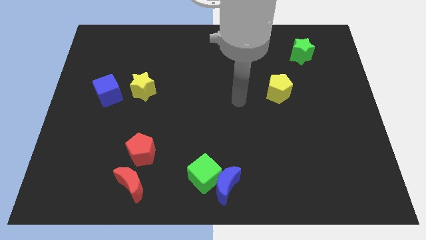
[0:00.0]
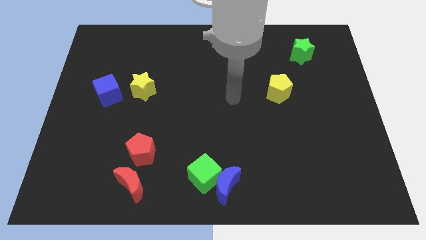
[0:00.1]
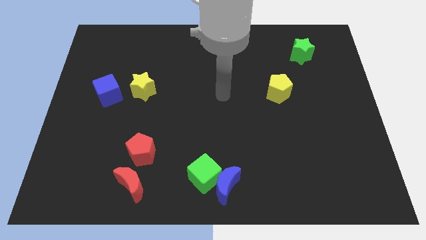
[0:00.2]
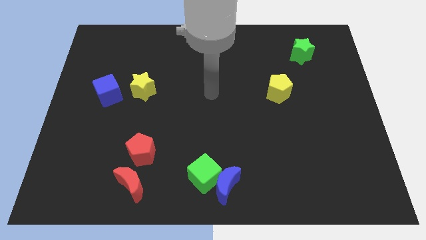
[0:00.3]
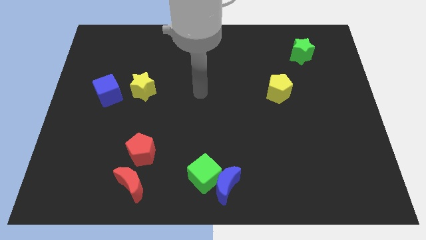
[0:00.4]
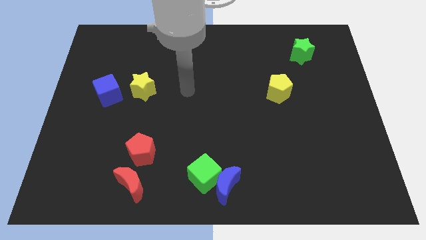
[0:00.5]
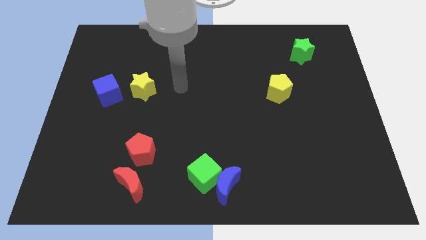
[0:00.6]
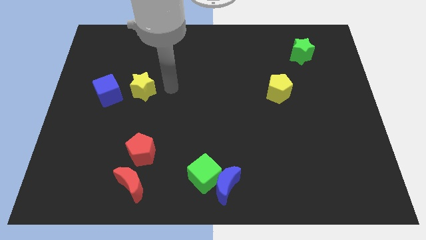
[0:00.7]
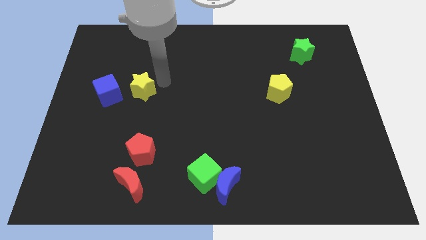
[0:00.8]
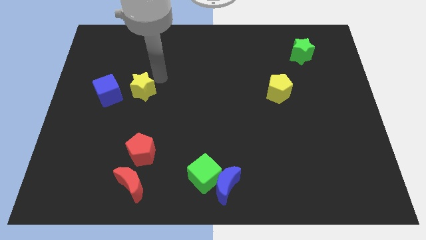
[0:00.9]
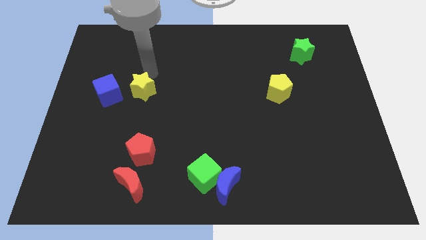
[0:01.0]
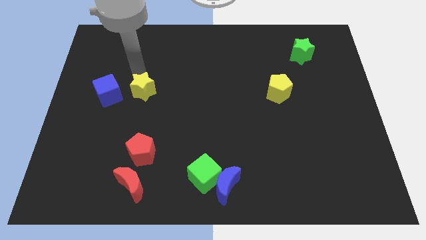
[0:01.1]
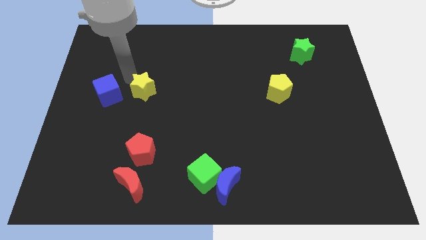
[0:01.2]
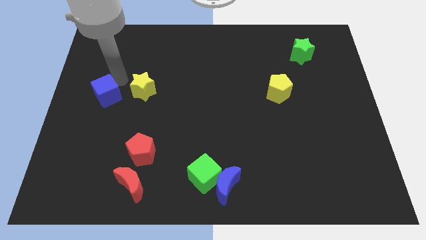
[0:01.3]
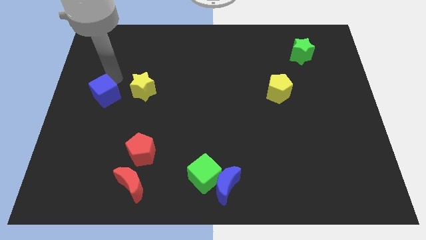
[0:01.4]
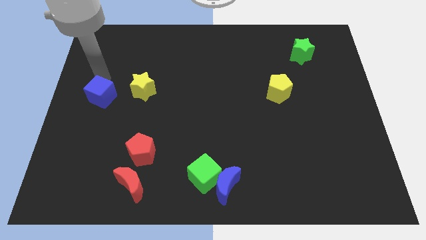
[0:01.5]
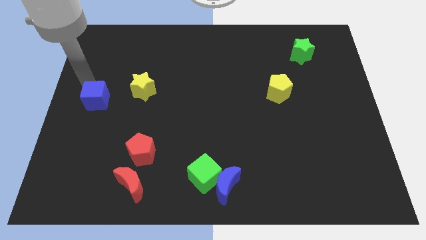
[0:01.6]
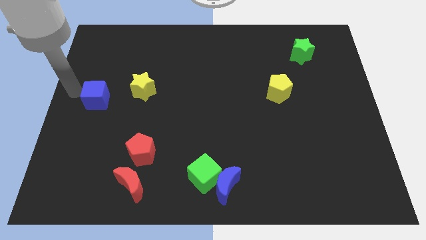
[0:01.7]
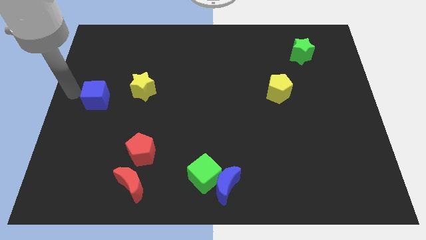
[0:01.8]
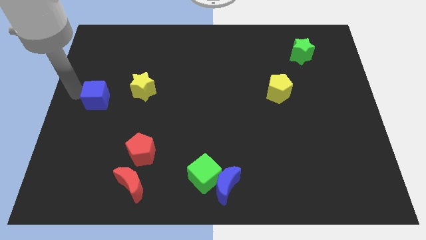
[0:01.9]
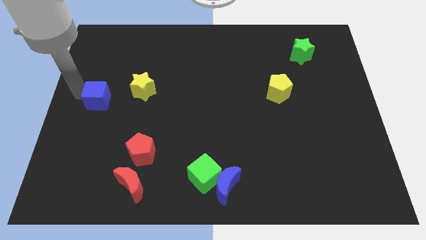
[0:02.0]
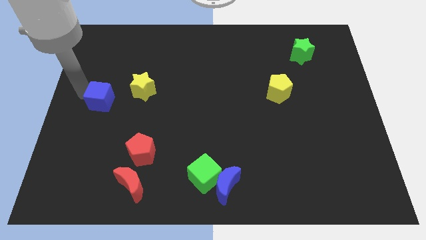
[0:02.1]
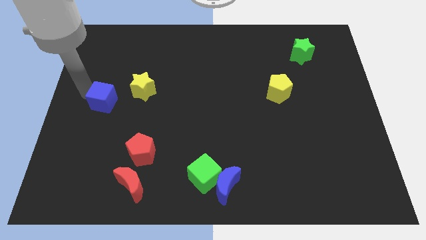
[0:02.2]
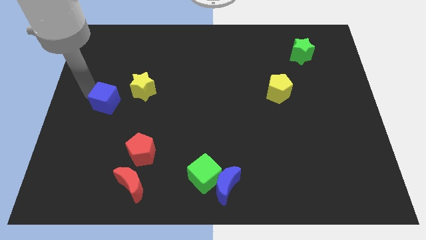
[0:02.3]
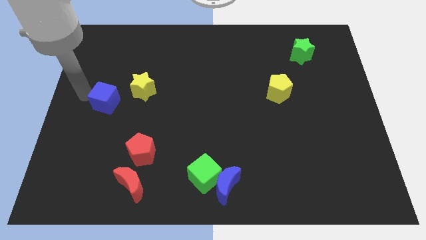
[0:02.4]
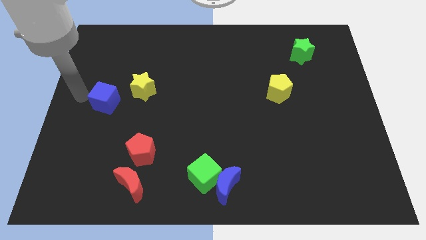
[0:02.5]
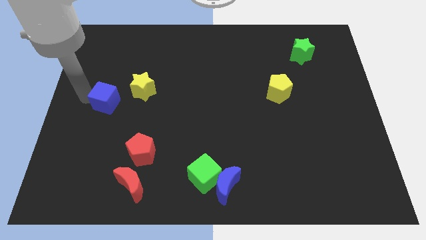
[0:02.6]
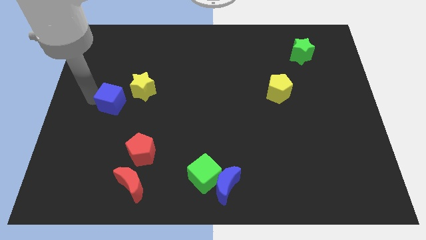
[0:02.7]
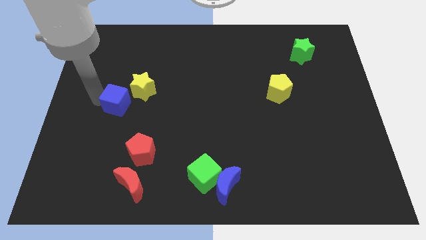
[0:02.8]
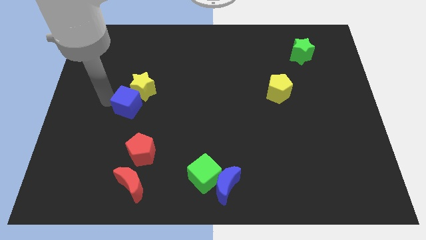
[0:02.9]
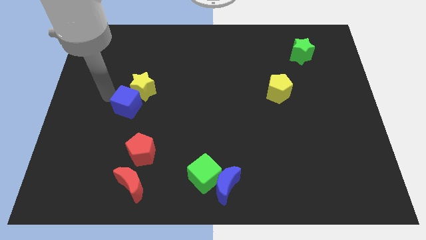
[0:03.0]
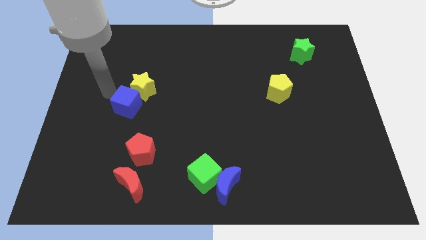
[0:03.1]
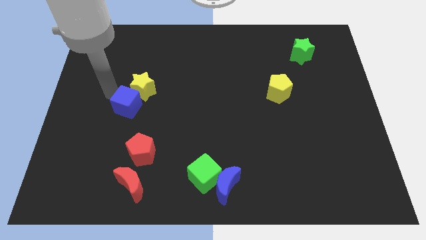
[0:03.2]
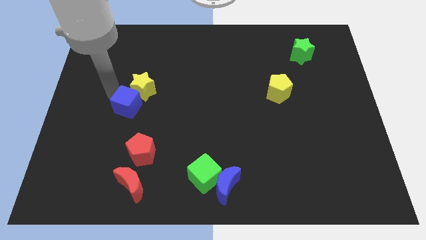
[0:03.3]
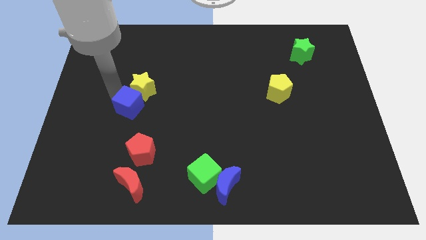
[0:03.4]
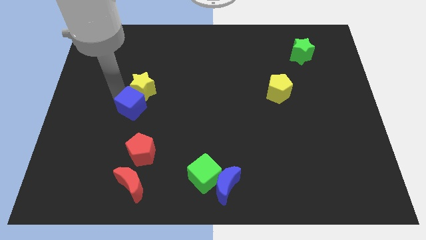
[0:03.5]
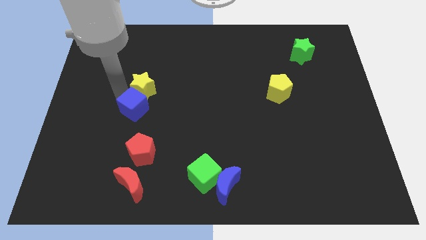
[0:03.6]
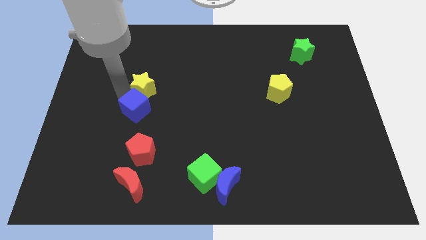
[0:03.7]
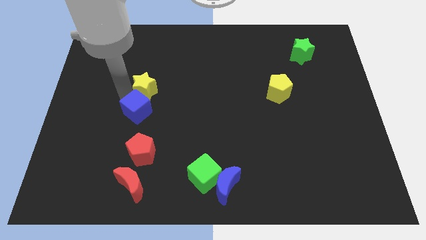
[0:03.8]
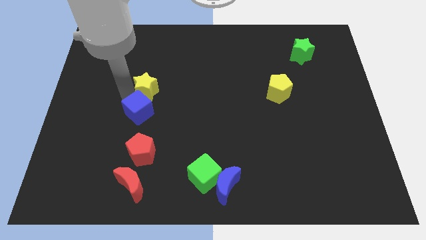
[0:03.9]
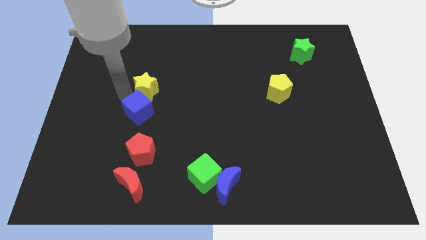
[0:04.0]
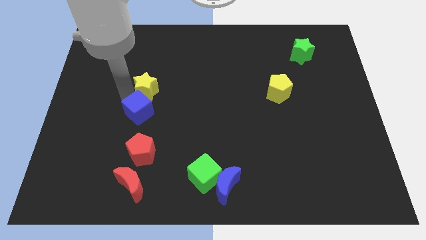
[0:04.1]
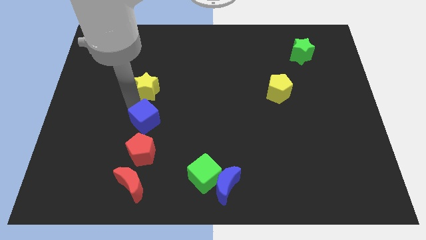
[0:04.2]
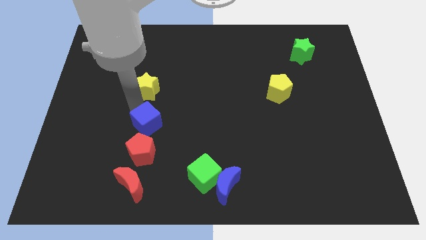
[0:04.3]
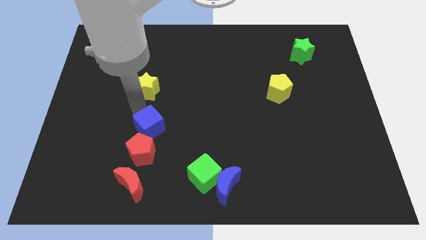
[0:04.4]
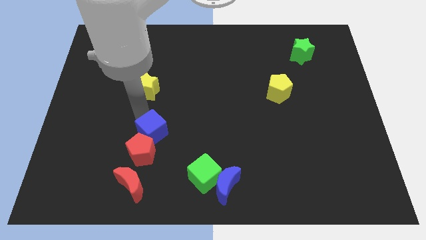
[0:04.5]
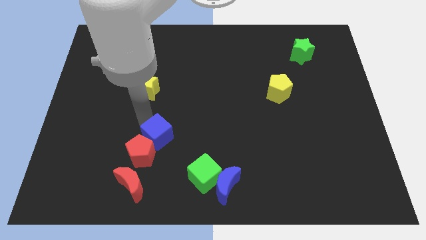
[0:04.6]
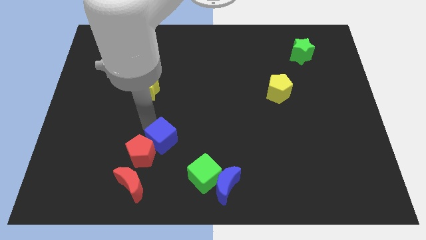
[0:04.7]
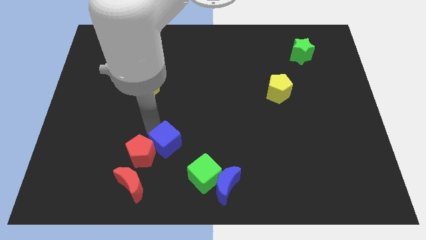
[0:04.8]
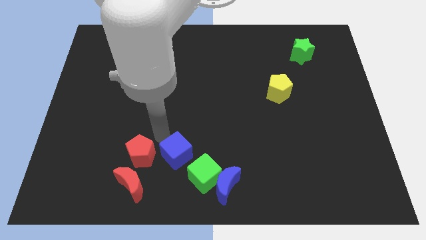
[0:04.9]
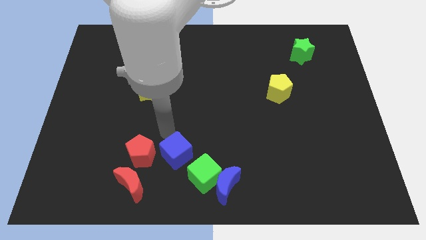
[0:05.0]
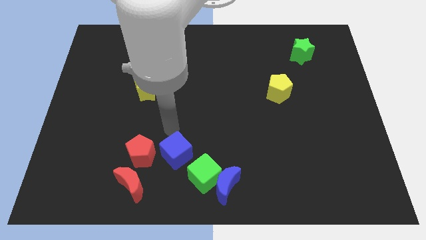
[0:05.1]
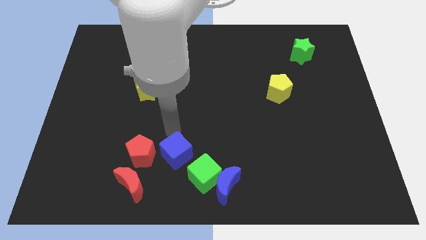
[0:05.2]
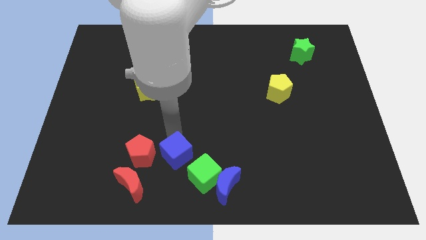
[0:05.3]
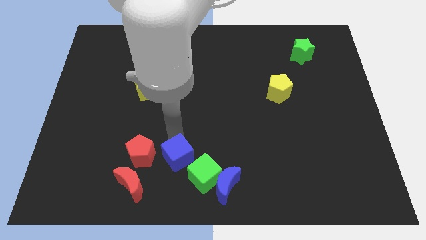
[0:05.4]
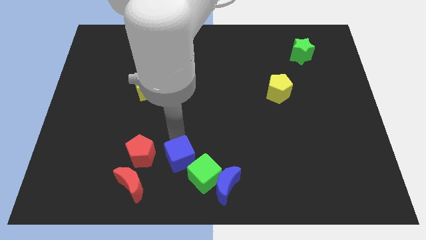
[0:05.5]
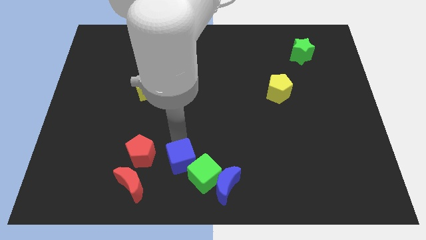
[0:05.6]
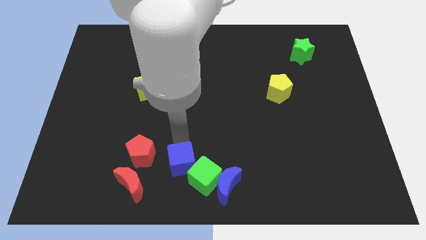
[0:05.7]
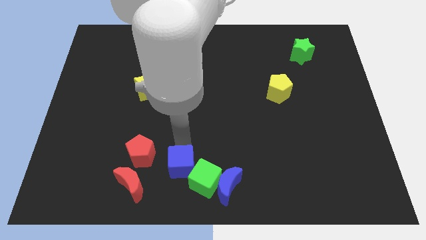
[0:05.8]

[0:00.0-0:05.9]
put the blue cube right of the red moon
